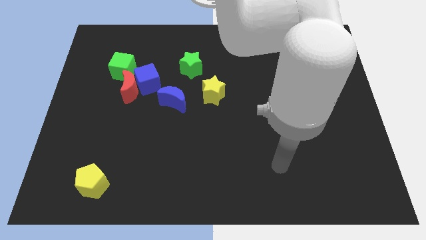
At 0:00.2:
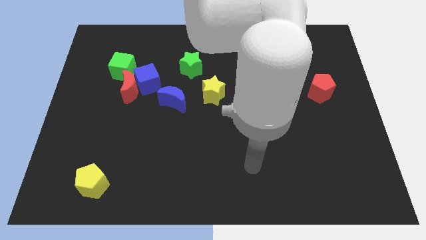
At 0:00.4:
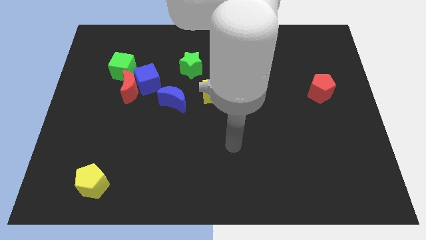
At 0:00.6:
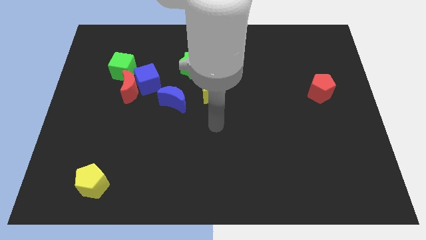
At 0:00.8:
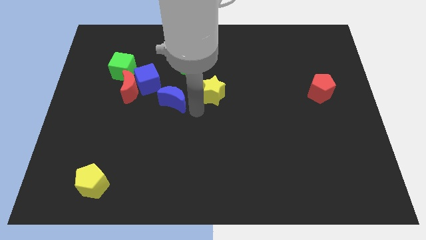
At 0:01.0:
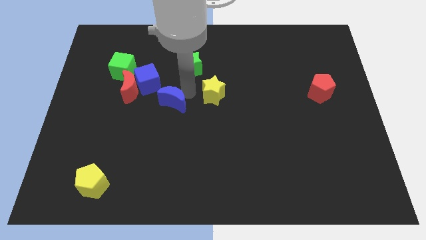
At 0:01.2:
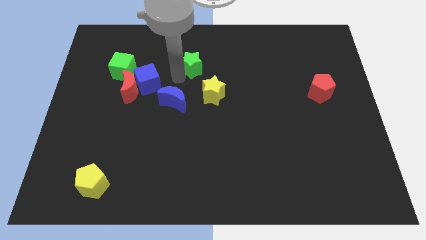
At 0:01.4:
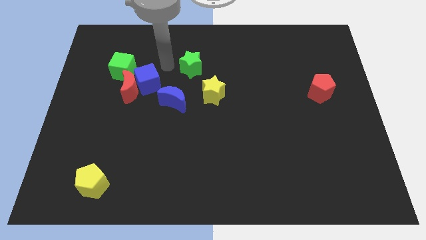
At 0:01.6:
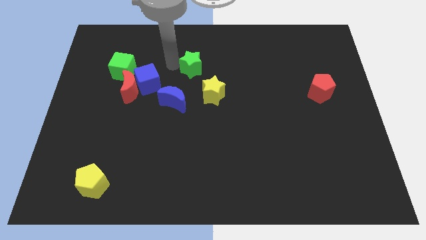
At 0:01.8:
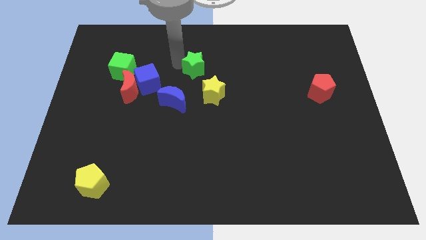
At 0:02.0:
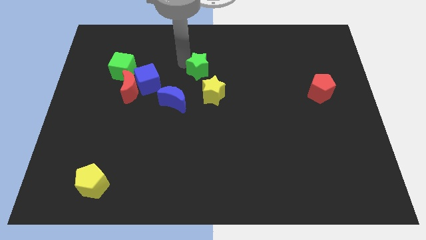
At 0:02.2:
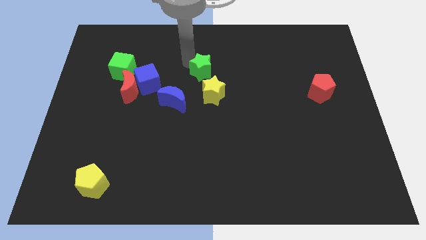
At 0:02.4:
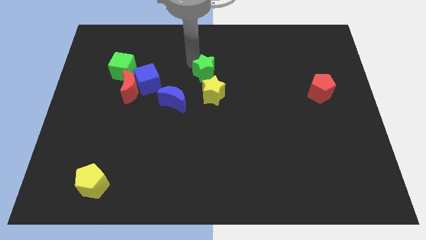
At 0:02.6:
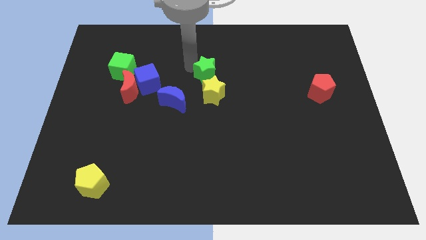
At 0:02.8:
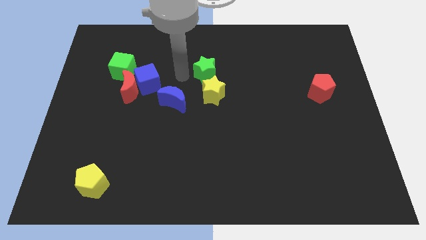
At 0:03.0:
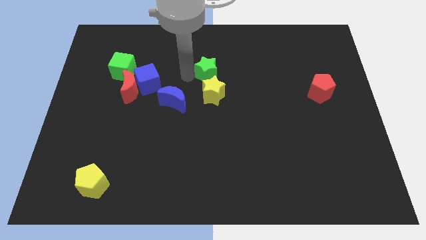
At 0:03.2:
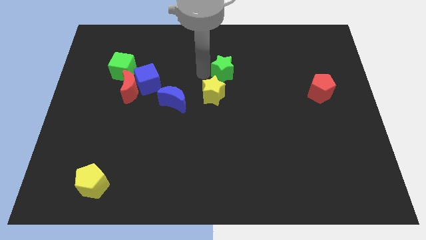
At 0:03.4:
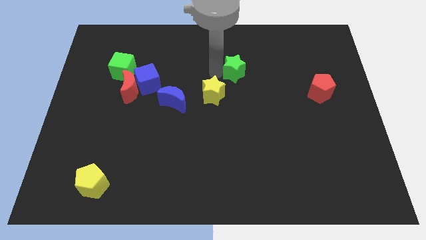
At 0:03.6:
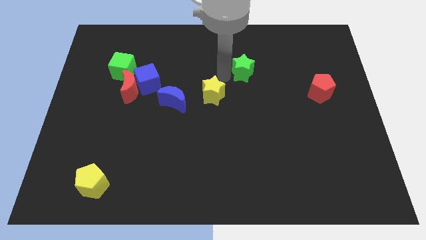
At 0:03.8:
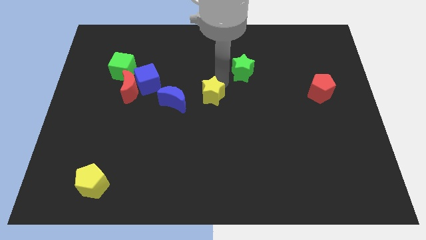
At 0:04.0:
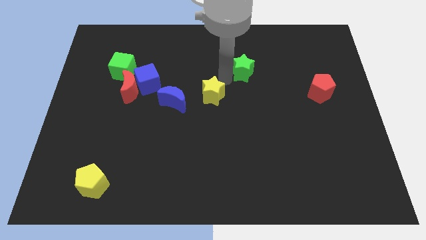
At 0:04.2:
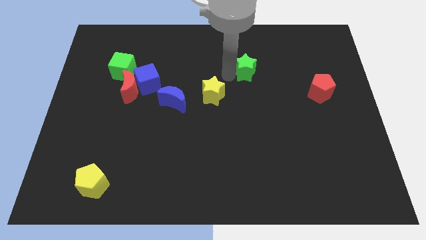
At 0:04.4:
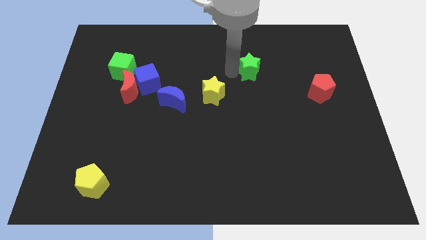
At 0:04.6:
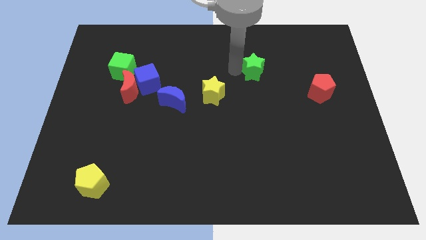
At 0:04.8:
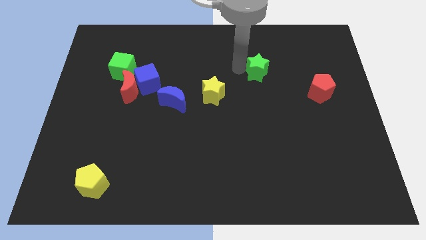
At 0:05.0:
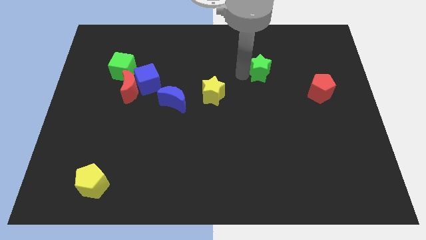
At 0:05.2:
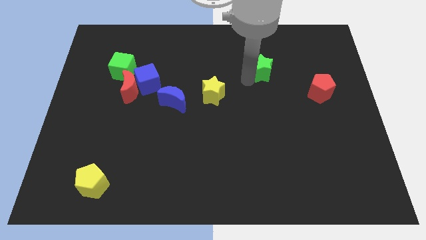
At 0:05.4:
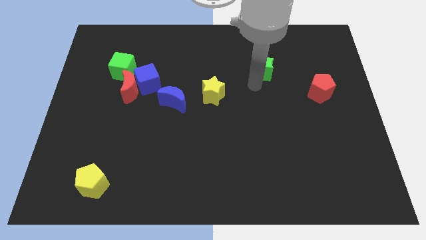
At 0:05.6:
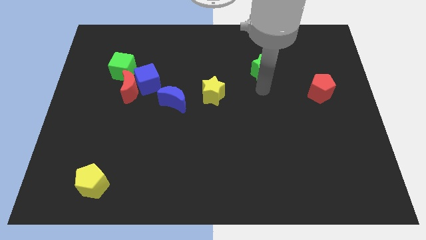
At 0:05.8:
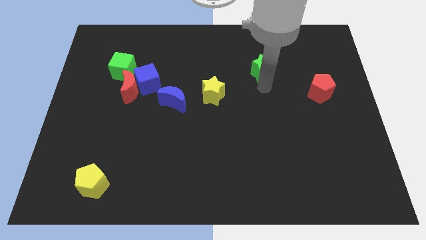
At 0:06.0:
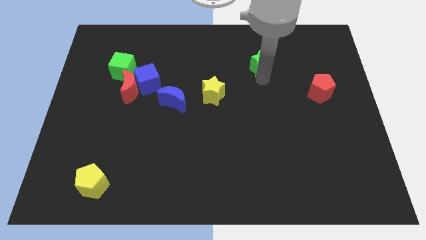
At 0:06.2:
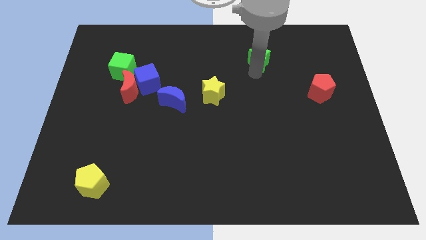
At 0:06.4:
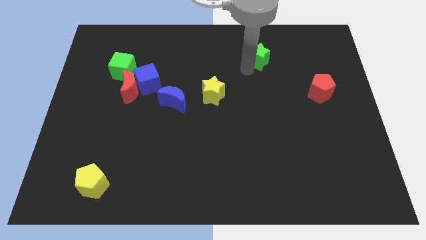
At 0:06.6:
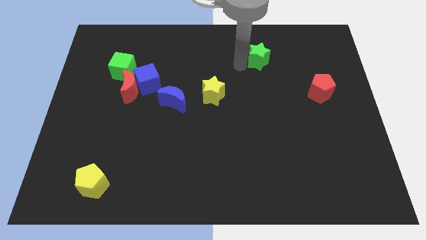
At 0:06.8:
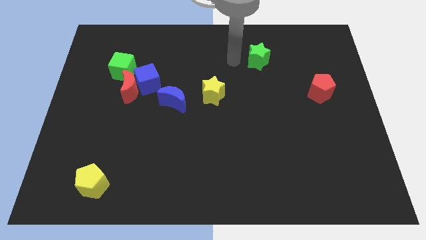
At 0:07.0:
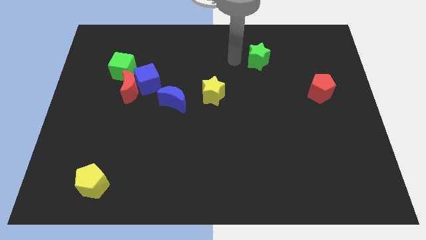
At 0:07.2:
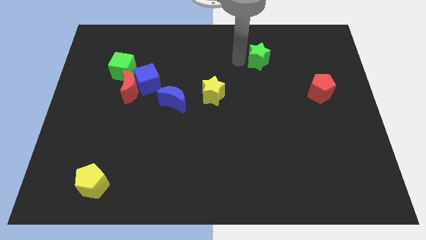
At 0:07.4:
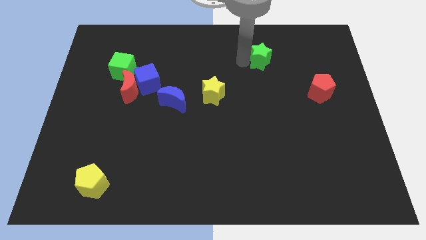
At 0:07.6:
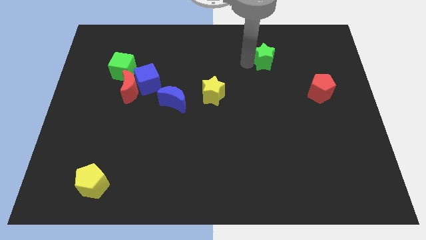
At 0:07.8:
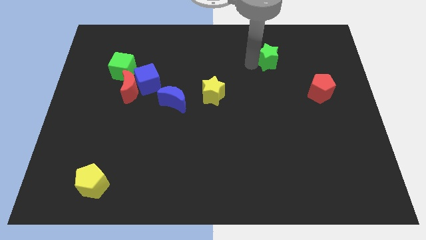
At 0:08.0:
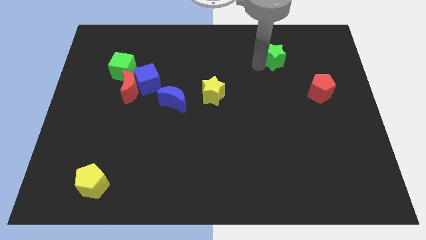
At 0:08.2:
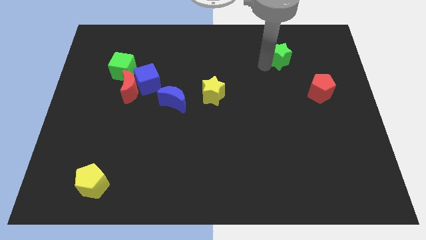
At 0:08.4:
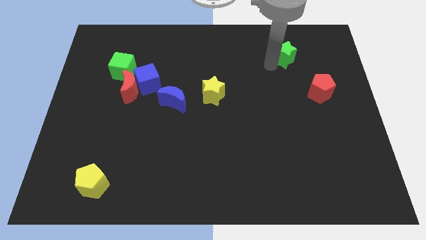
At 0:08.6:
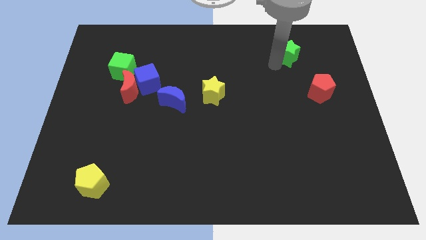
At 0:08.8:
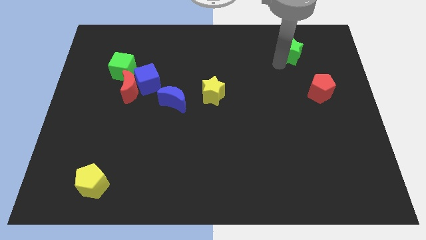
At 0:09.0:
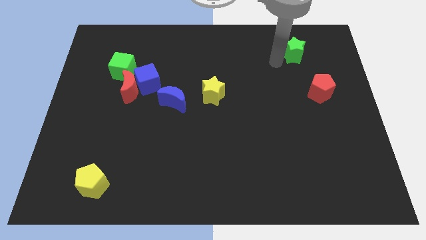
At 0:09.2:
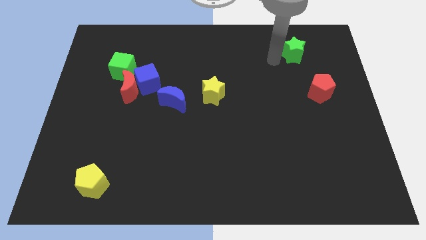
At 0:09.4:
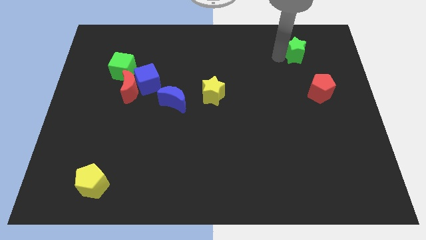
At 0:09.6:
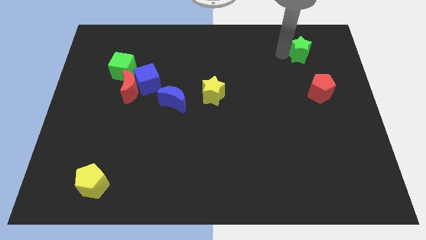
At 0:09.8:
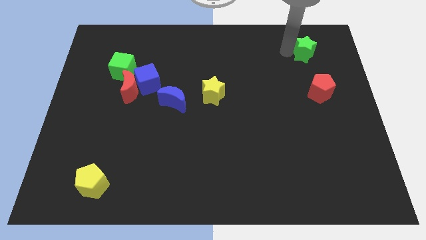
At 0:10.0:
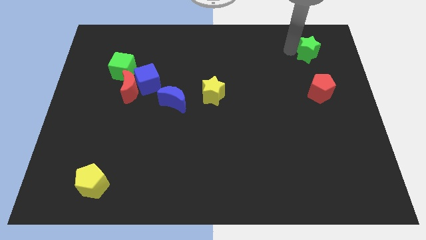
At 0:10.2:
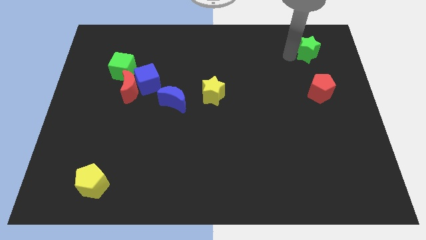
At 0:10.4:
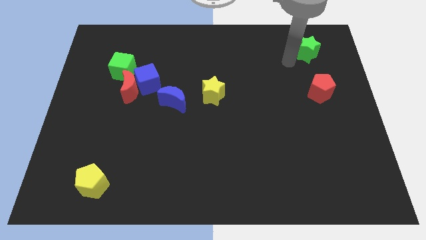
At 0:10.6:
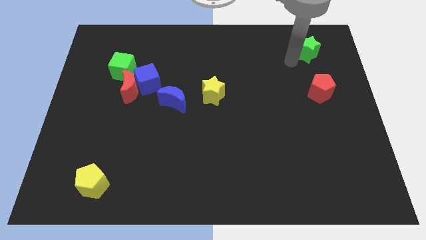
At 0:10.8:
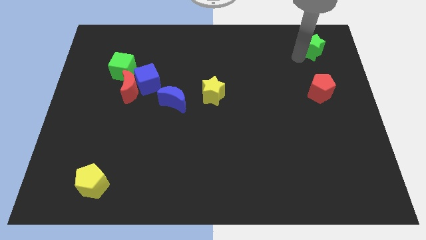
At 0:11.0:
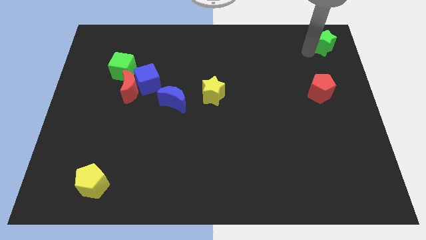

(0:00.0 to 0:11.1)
slide the green star to the upper right corner

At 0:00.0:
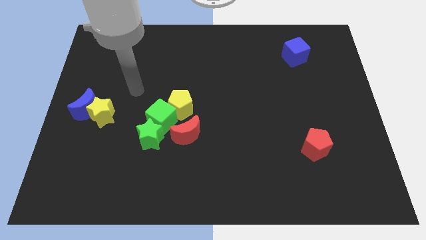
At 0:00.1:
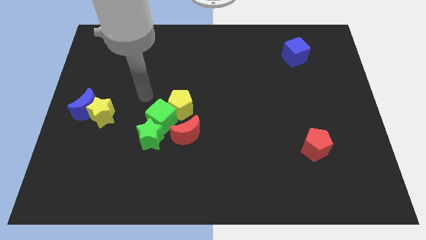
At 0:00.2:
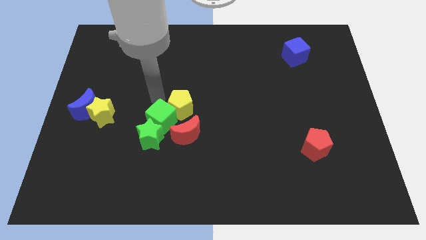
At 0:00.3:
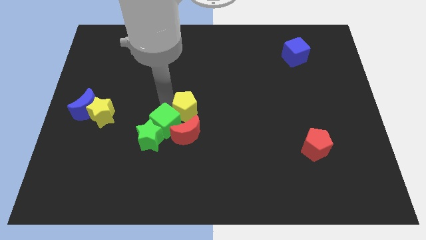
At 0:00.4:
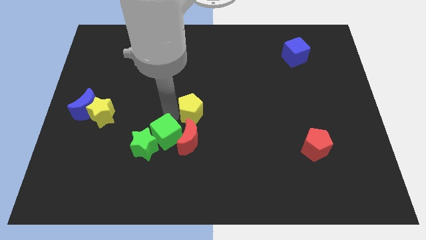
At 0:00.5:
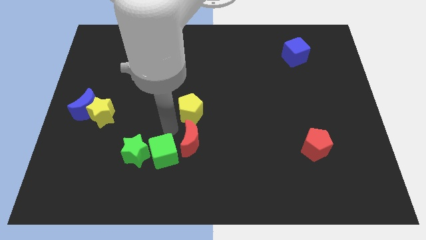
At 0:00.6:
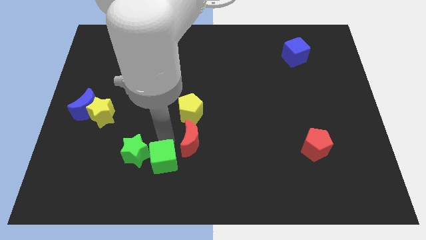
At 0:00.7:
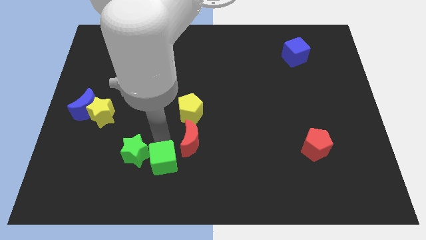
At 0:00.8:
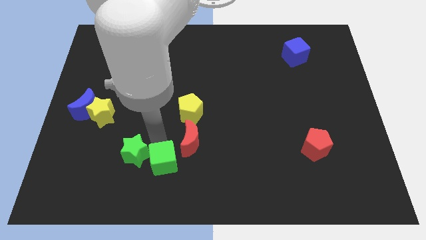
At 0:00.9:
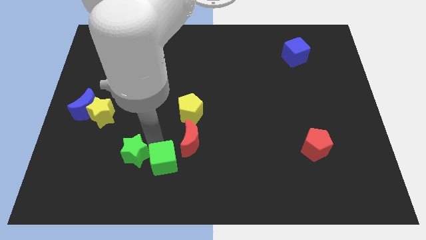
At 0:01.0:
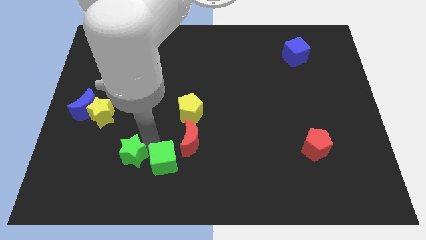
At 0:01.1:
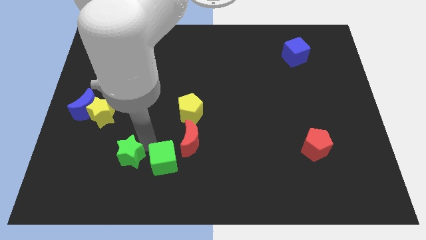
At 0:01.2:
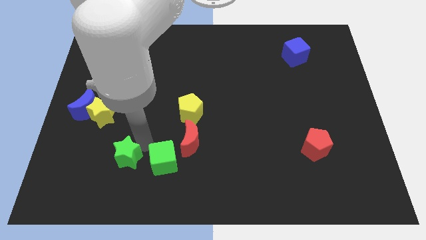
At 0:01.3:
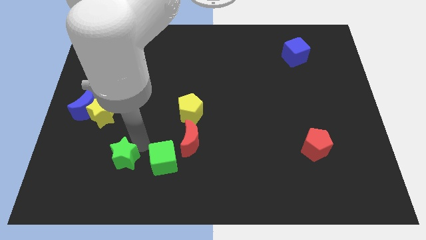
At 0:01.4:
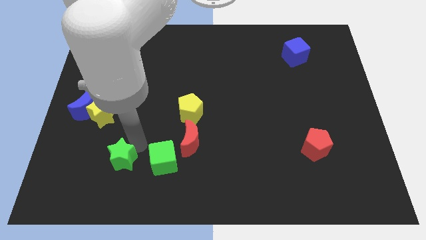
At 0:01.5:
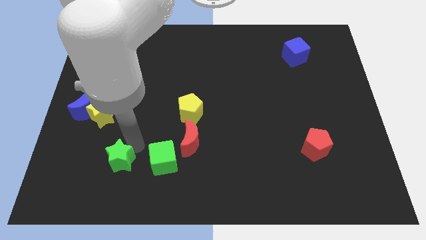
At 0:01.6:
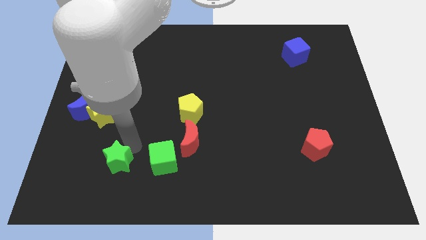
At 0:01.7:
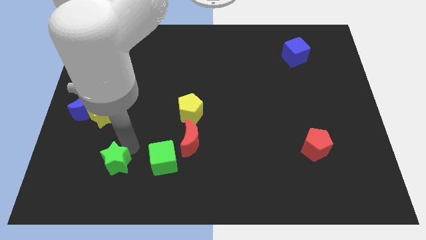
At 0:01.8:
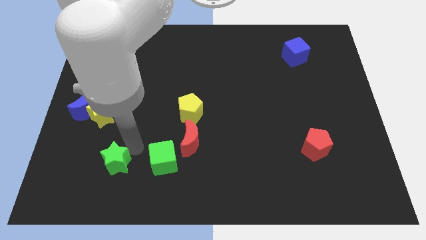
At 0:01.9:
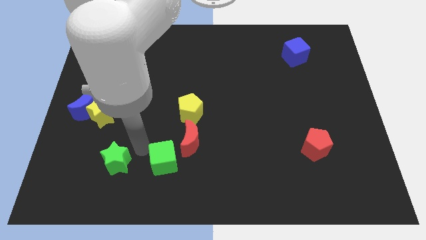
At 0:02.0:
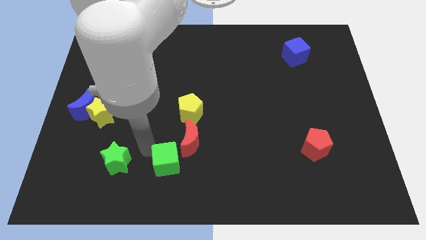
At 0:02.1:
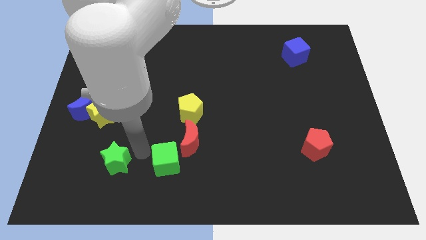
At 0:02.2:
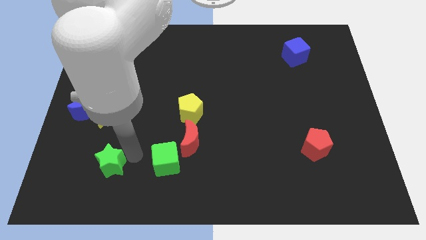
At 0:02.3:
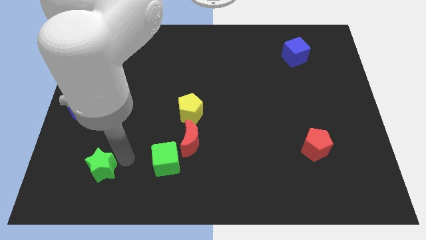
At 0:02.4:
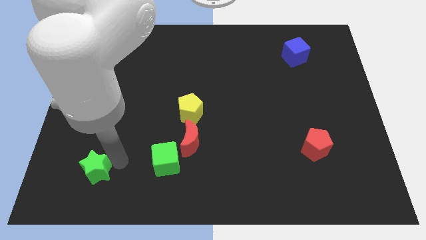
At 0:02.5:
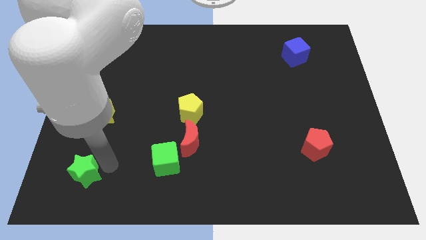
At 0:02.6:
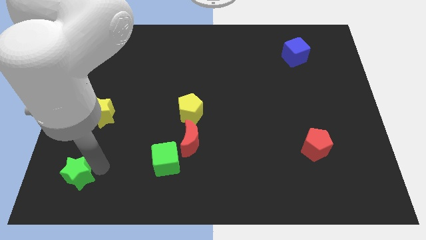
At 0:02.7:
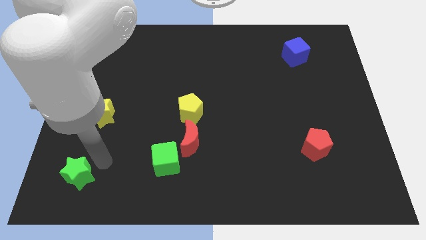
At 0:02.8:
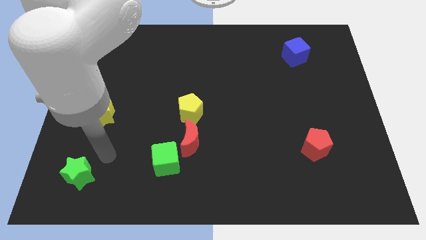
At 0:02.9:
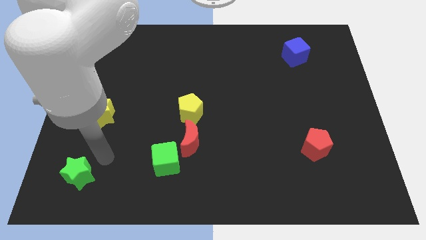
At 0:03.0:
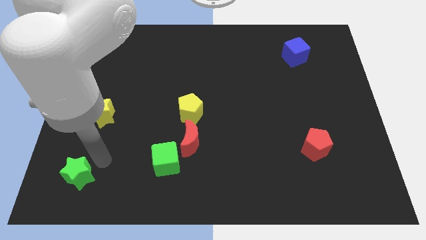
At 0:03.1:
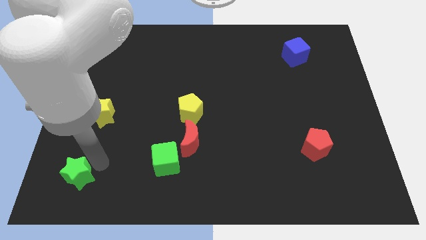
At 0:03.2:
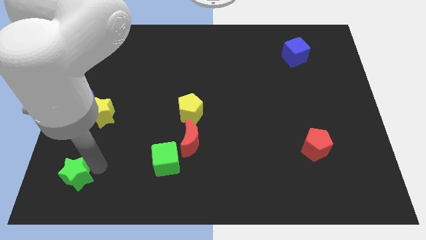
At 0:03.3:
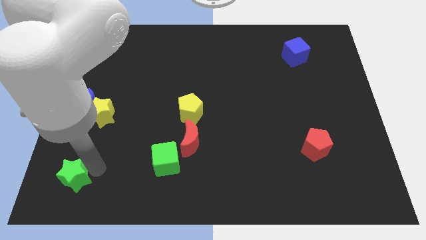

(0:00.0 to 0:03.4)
put the green star to the bottom left of the board
